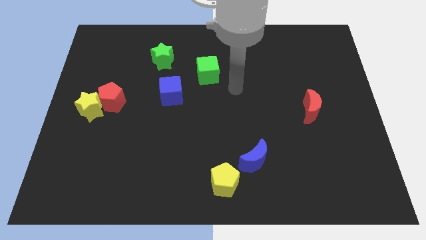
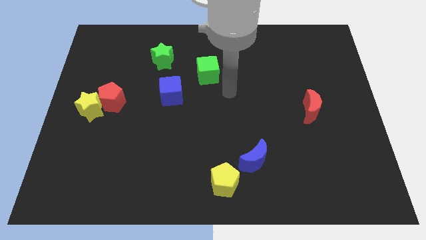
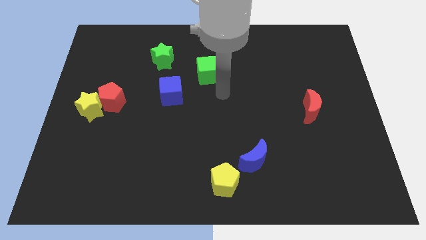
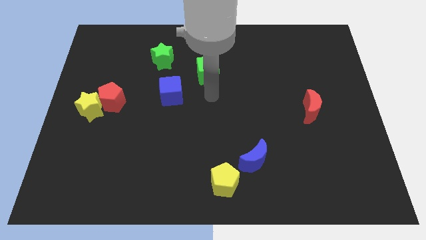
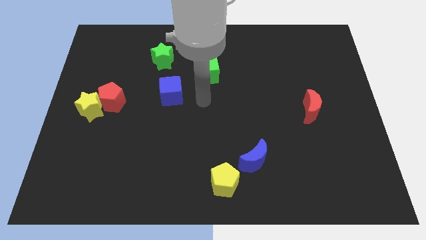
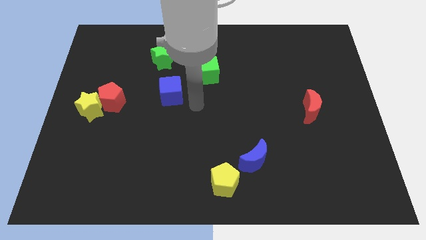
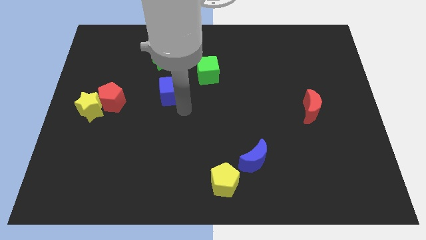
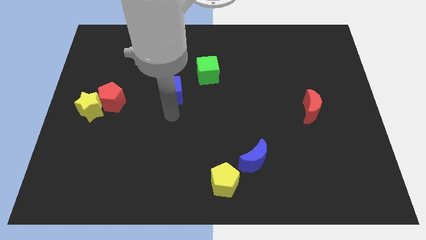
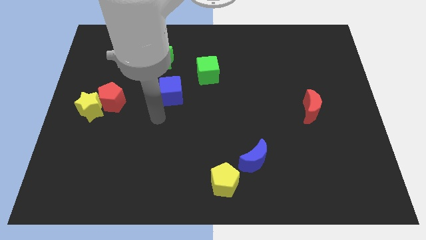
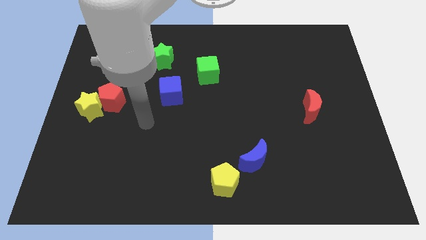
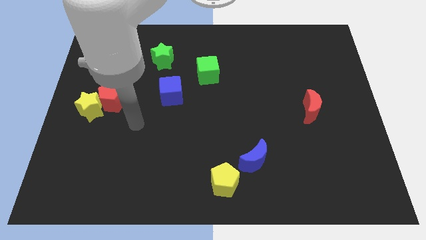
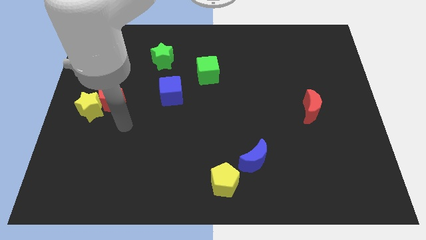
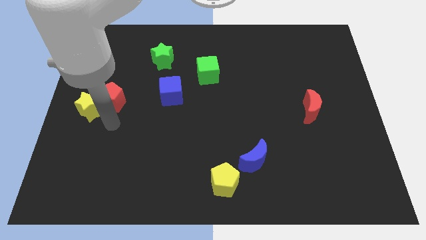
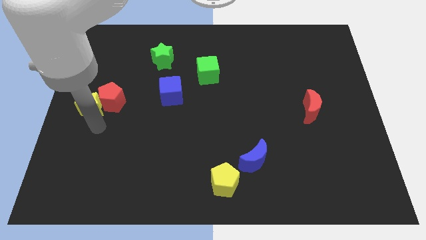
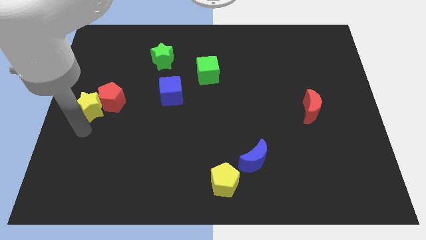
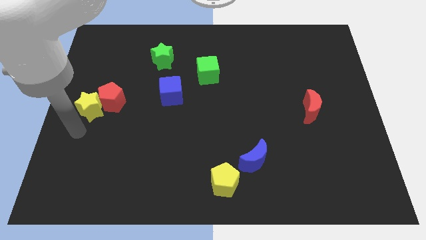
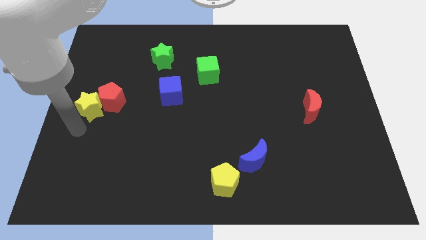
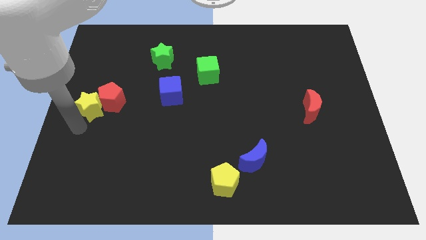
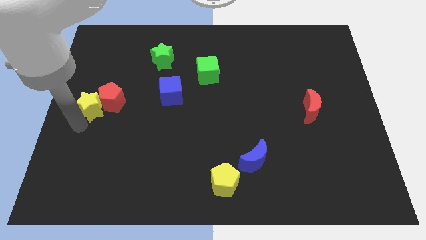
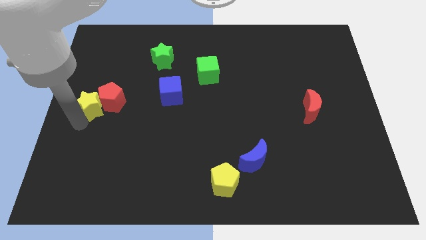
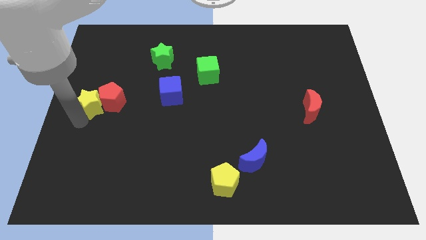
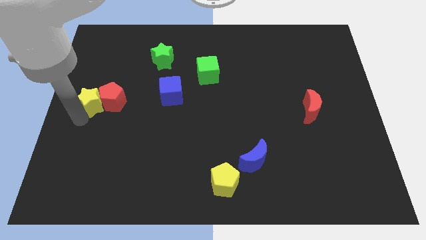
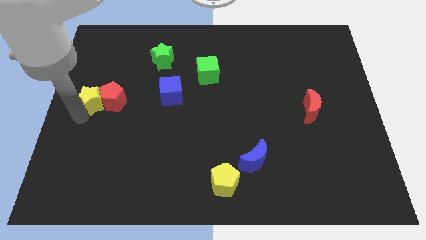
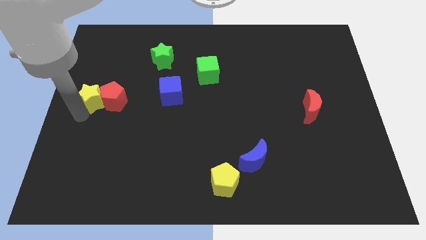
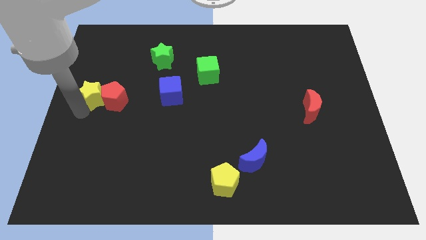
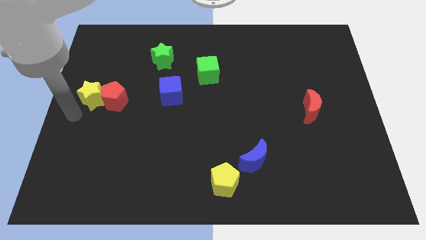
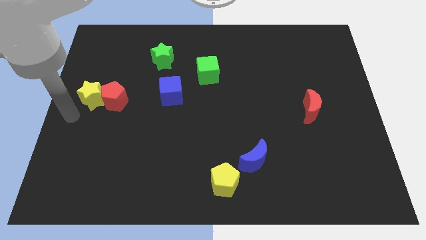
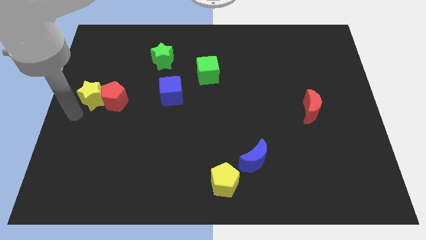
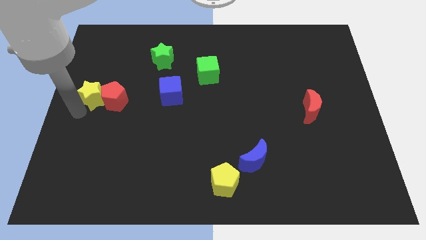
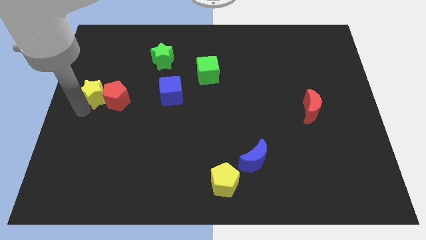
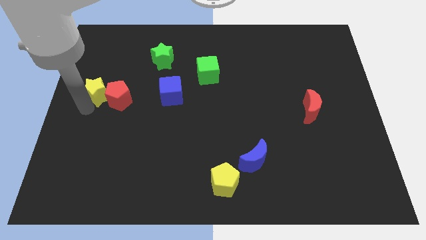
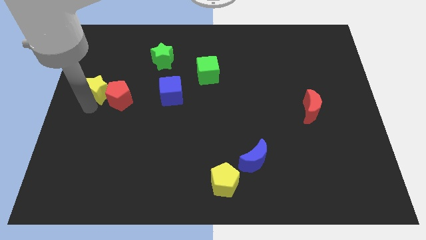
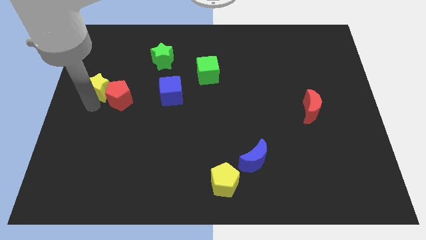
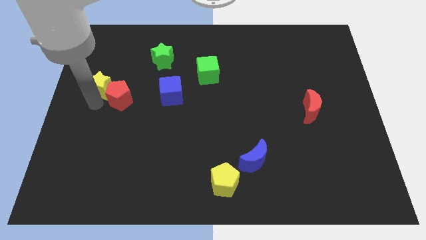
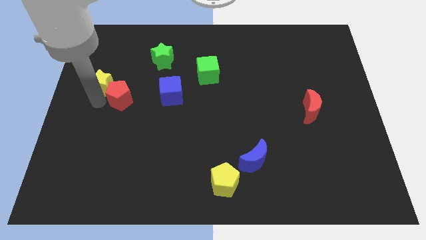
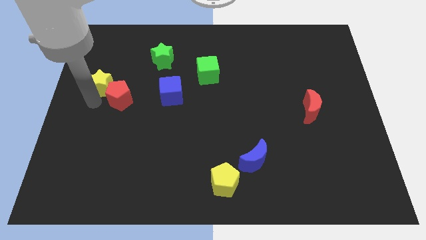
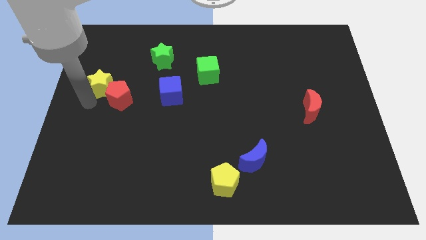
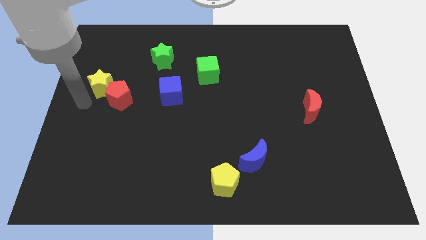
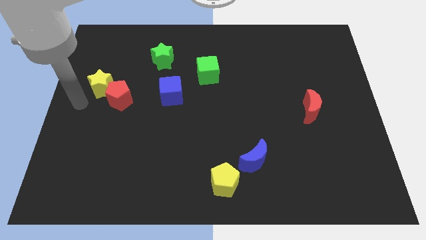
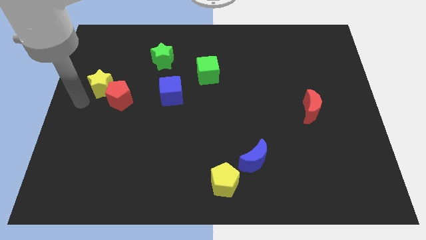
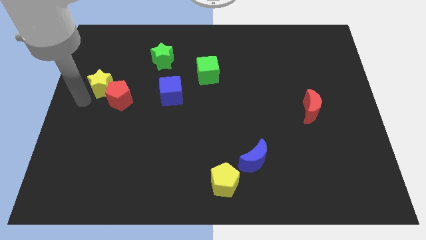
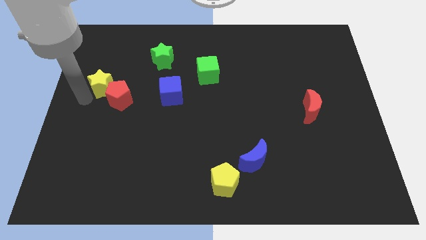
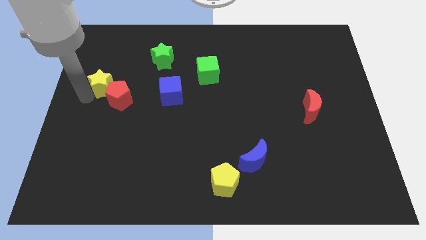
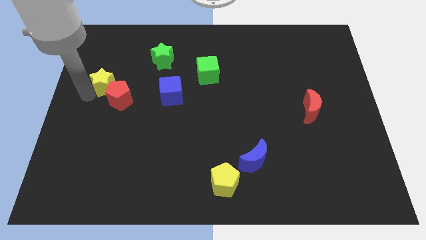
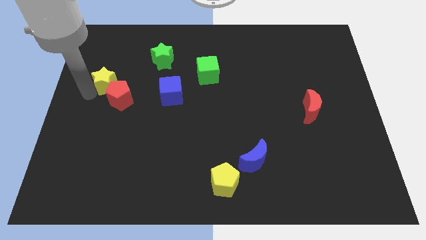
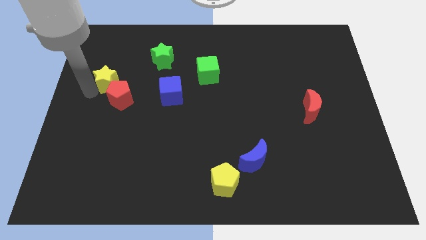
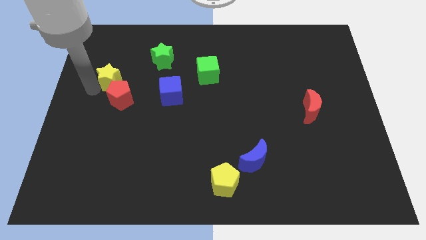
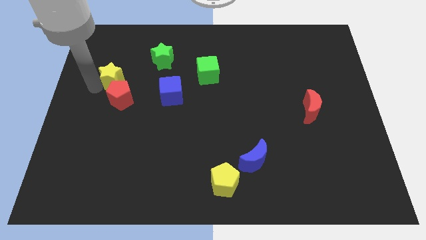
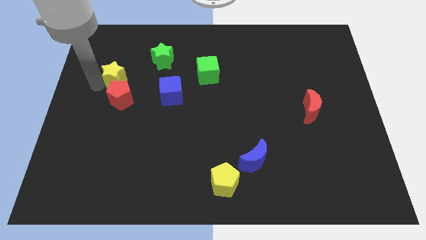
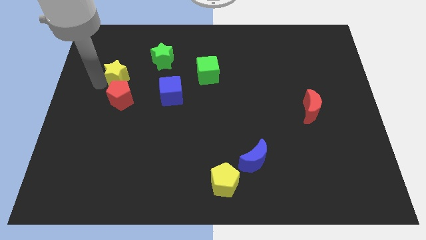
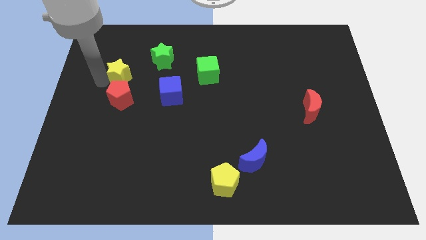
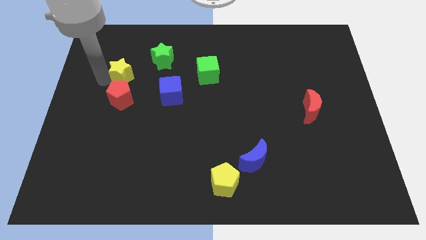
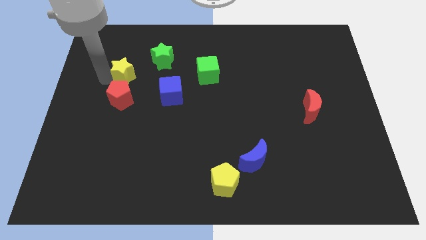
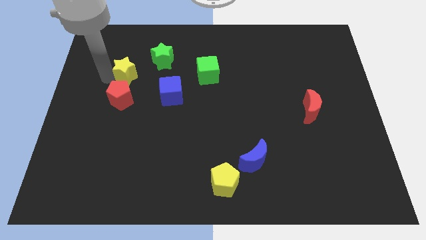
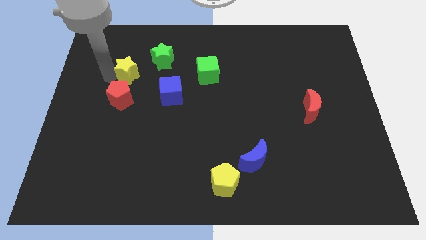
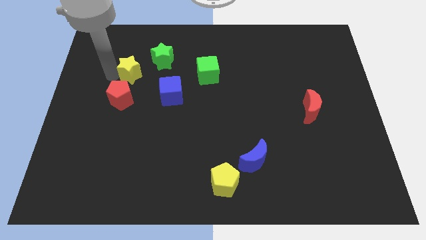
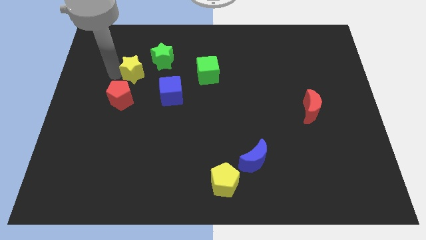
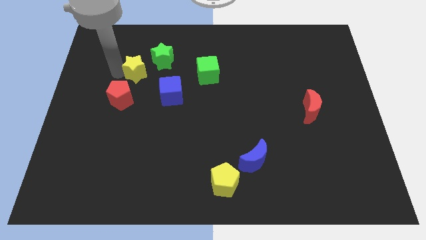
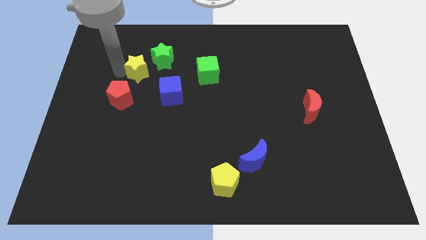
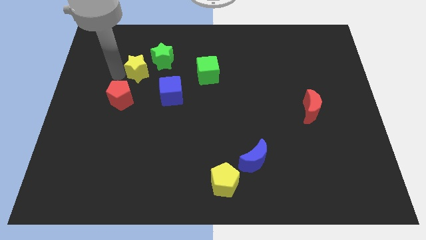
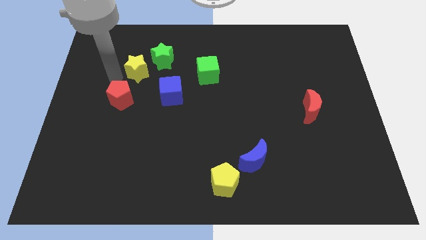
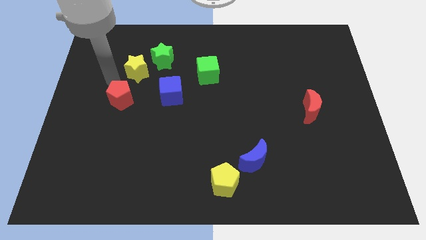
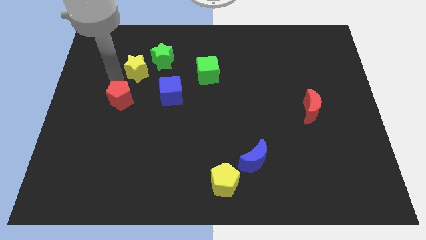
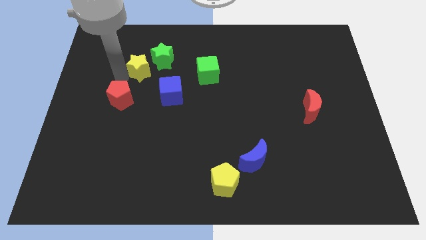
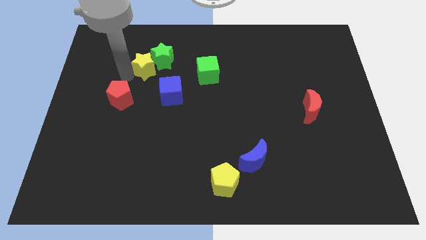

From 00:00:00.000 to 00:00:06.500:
push the yellow star towards the green star

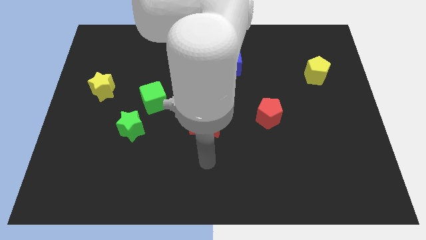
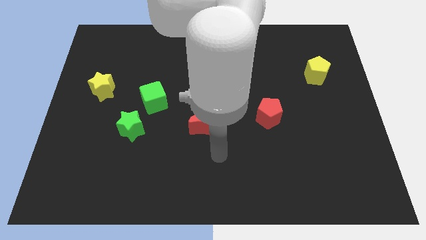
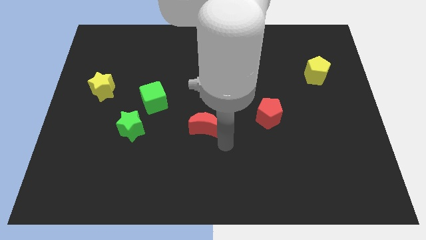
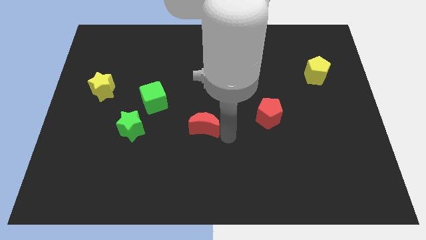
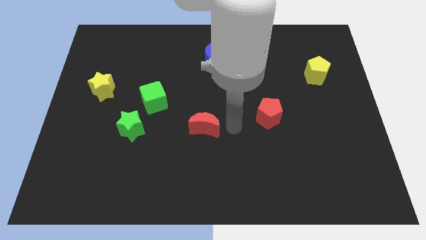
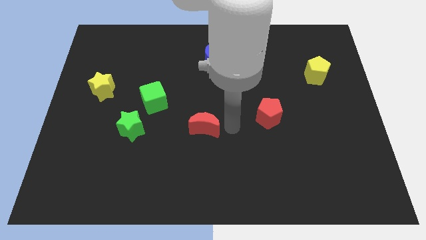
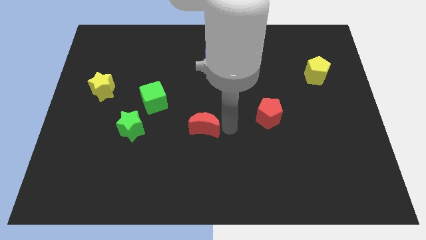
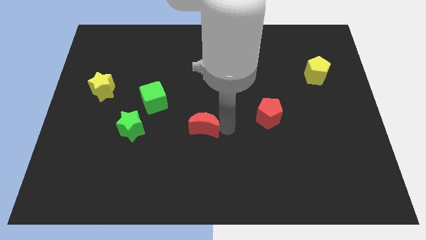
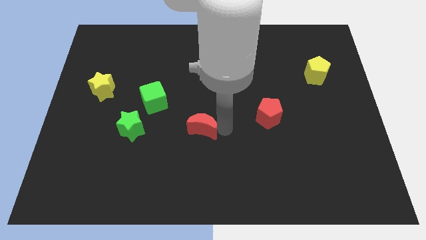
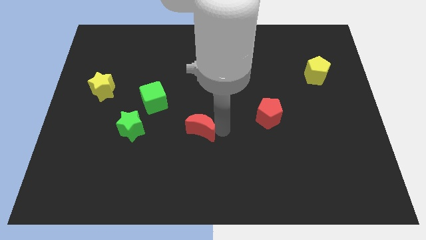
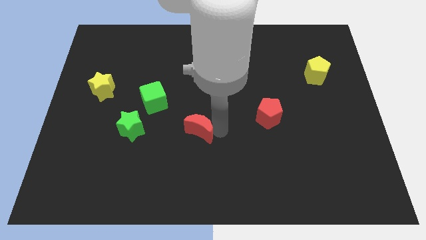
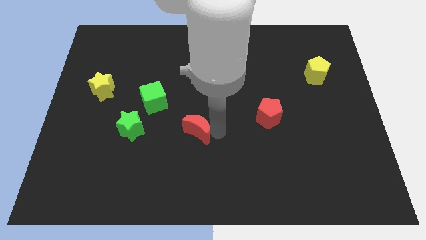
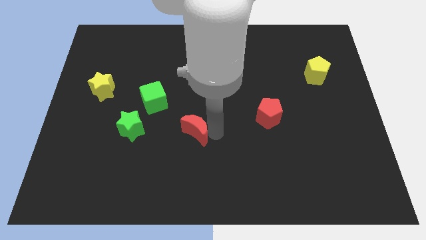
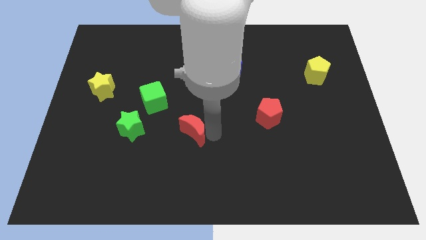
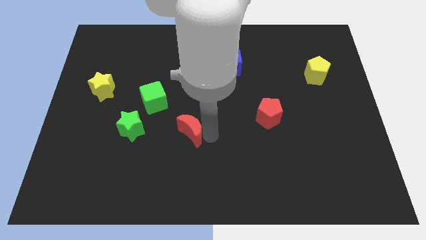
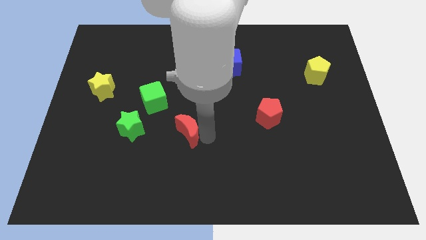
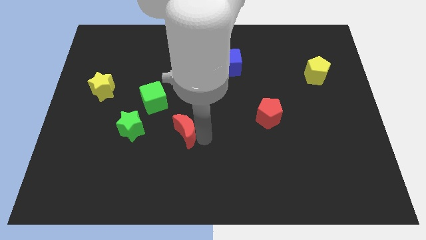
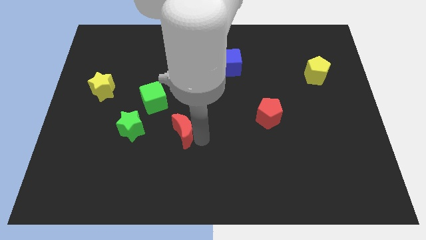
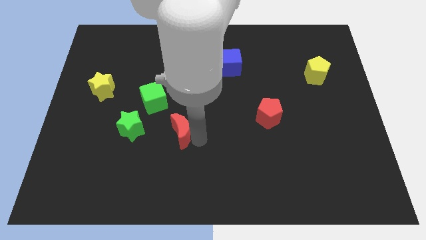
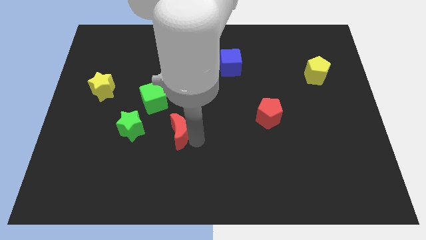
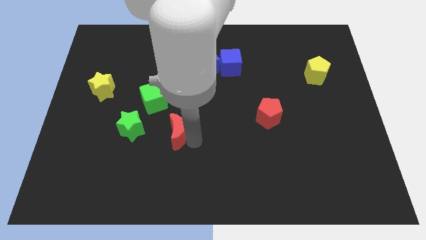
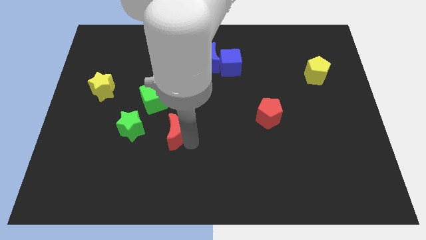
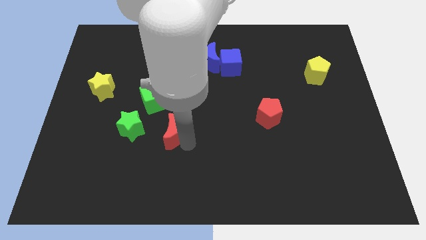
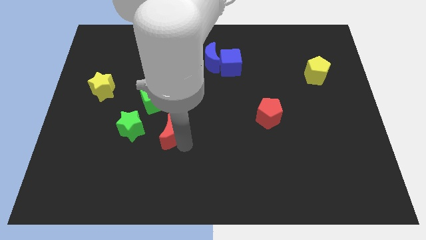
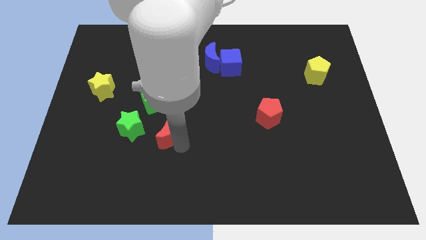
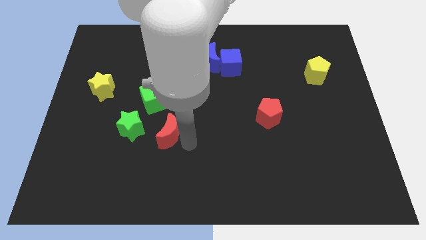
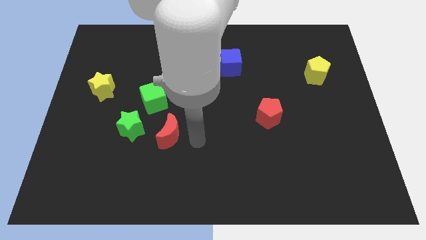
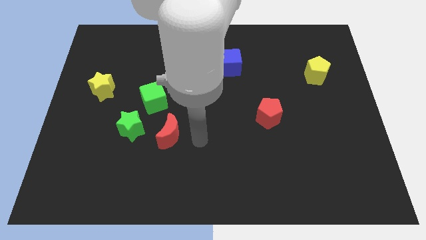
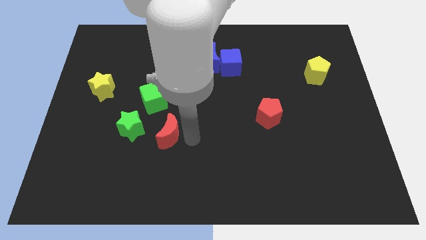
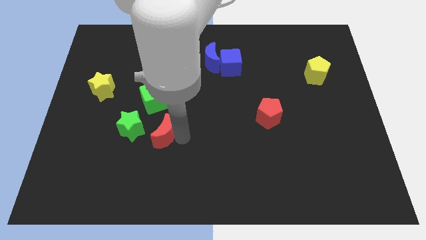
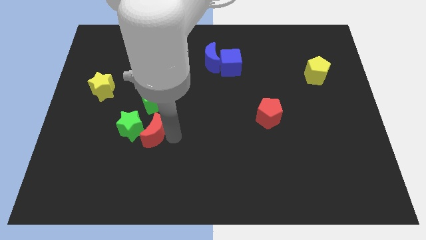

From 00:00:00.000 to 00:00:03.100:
push the red moon towards the green star
